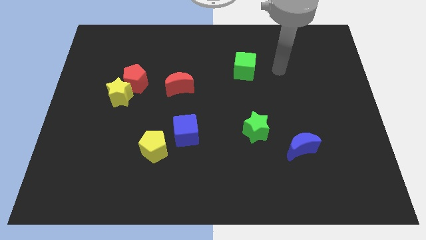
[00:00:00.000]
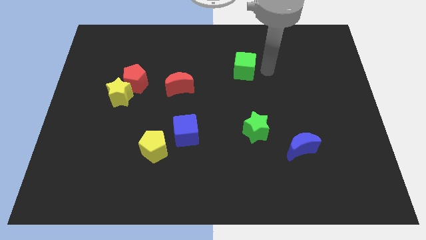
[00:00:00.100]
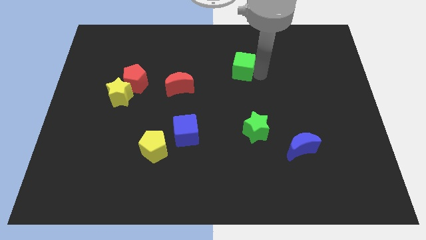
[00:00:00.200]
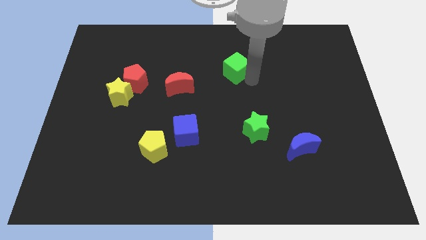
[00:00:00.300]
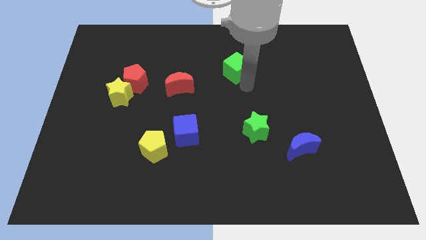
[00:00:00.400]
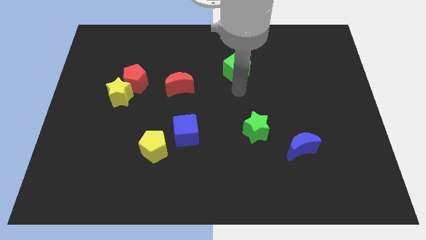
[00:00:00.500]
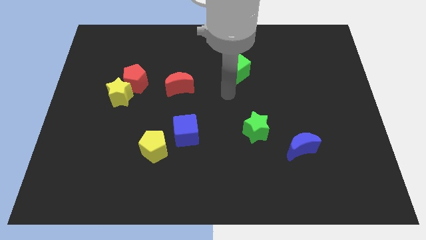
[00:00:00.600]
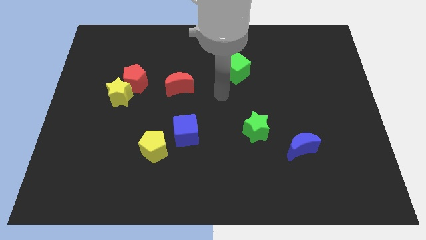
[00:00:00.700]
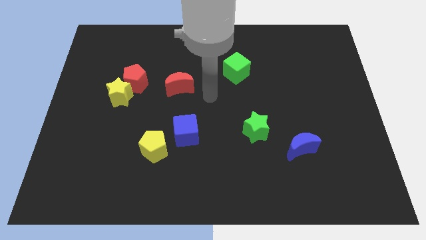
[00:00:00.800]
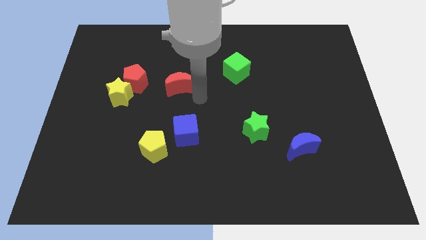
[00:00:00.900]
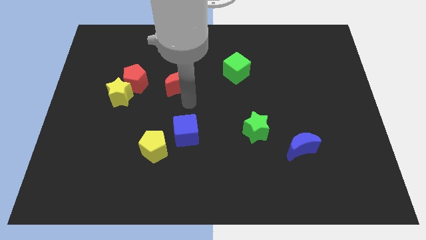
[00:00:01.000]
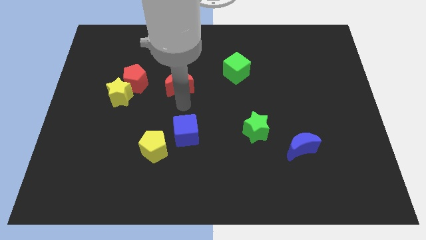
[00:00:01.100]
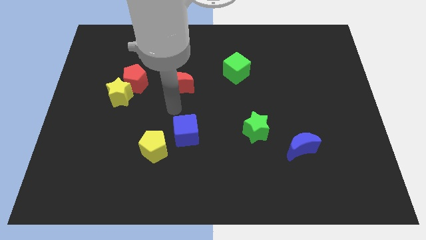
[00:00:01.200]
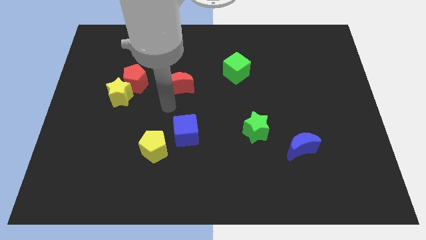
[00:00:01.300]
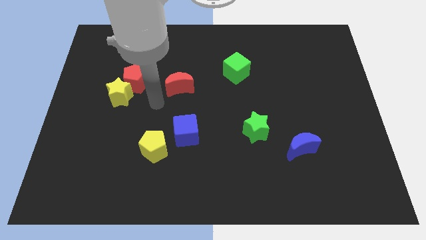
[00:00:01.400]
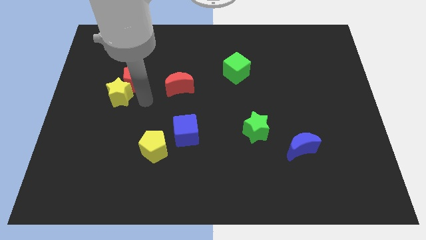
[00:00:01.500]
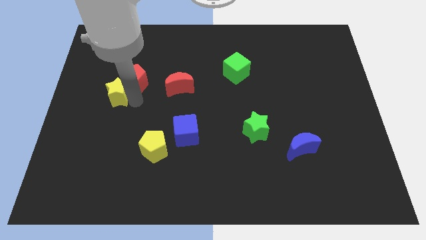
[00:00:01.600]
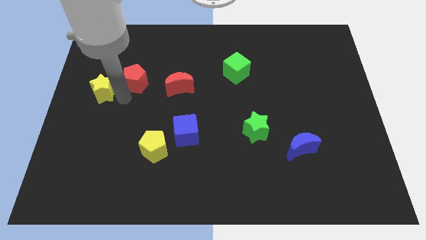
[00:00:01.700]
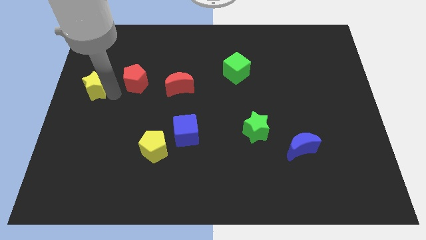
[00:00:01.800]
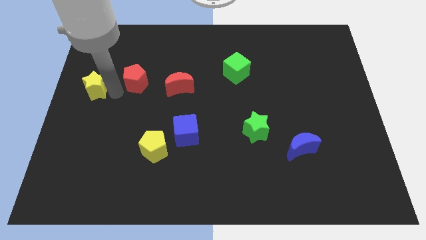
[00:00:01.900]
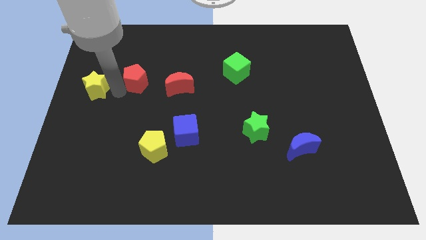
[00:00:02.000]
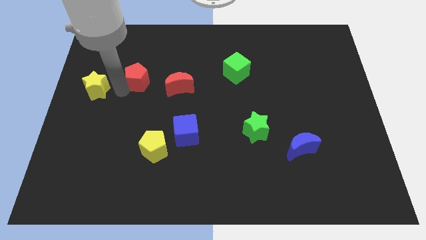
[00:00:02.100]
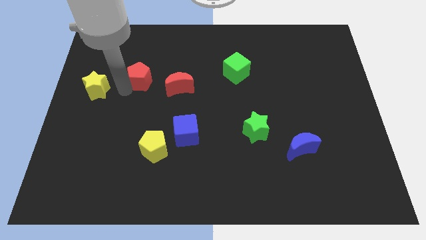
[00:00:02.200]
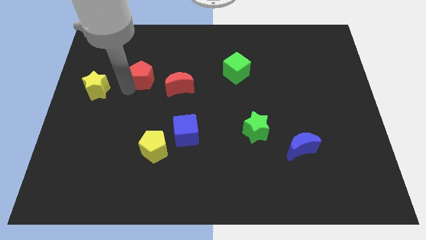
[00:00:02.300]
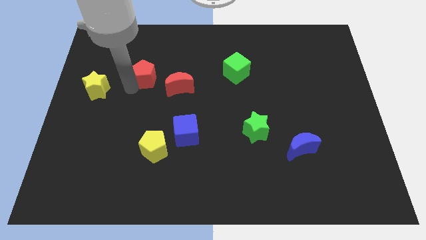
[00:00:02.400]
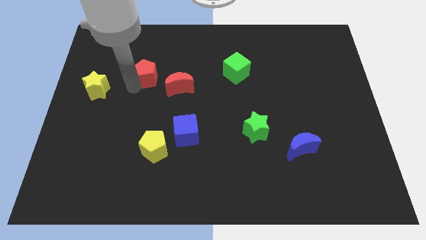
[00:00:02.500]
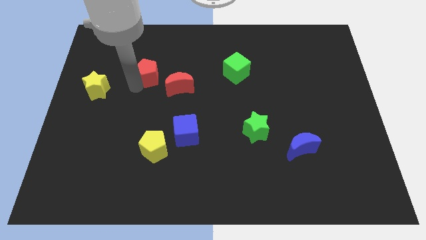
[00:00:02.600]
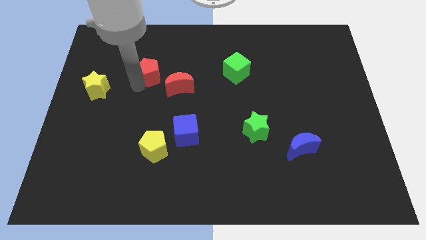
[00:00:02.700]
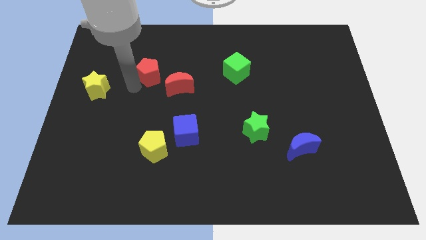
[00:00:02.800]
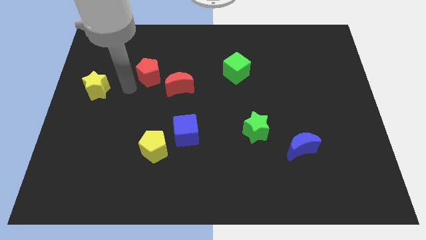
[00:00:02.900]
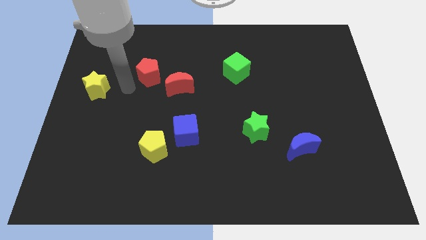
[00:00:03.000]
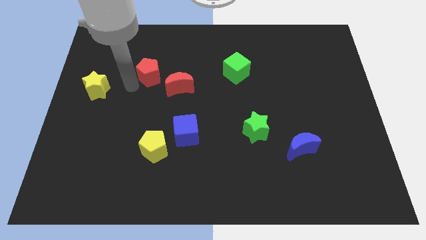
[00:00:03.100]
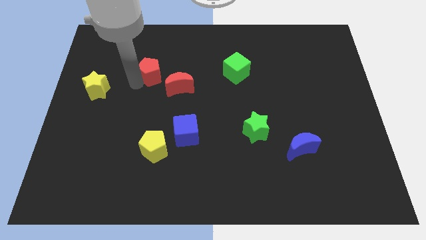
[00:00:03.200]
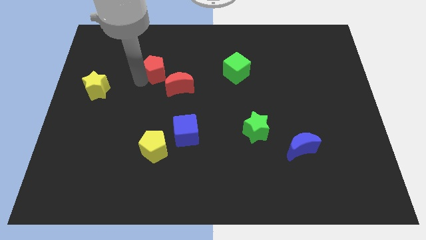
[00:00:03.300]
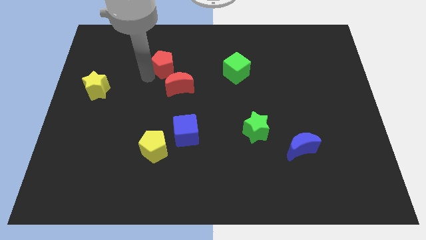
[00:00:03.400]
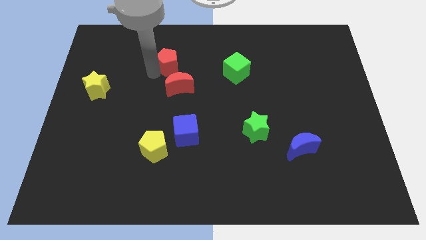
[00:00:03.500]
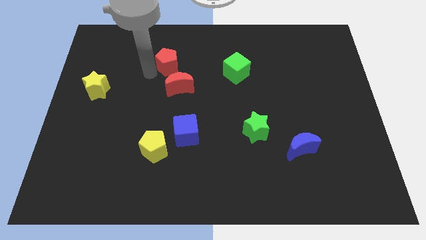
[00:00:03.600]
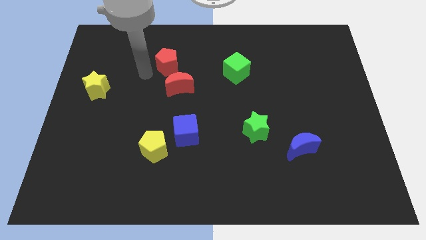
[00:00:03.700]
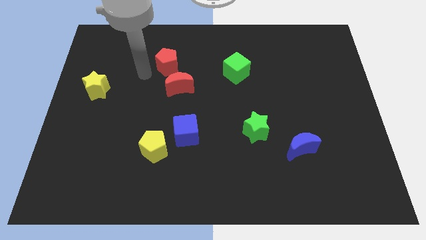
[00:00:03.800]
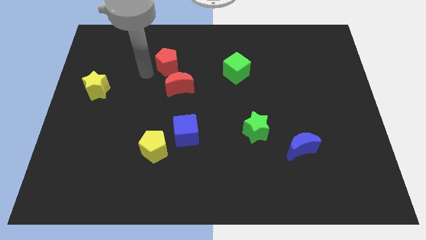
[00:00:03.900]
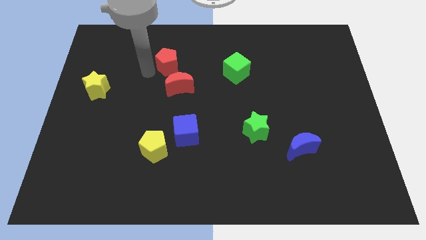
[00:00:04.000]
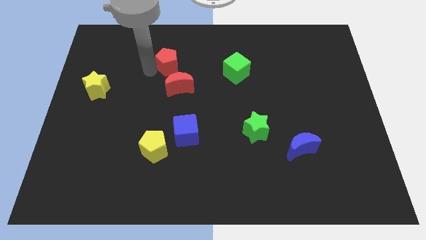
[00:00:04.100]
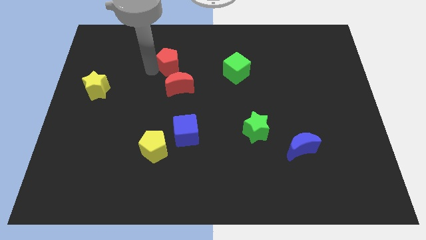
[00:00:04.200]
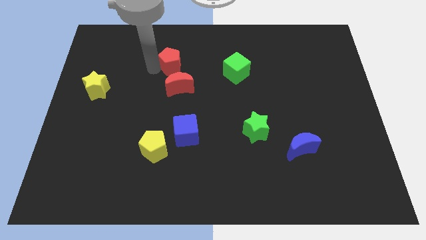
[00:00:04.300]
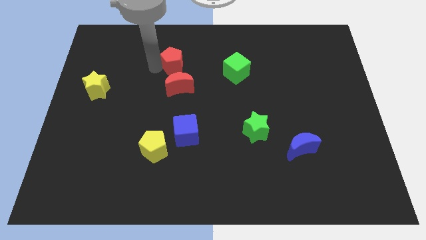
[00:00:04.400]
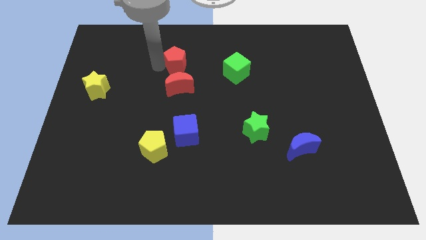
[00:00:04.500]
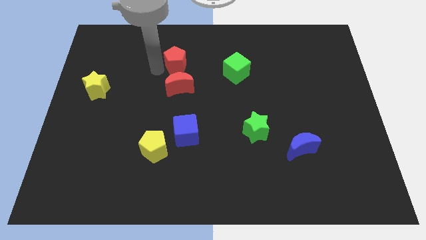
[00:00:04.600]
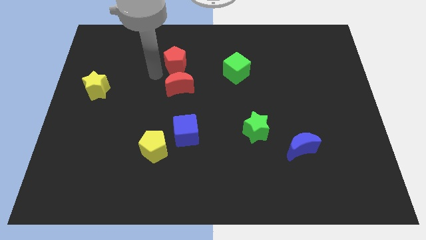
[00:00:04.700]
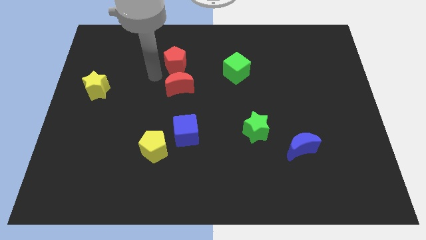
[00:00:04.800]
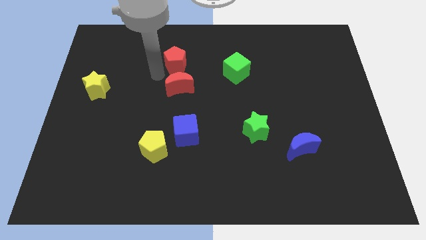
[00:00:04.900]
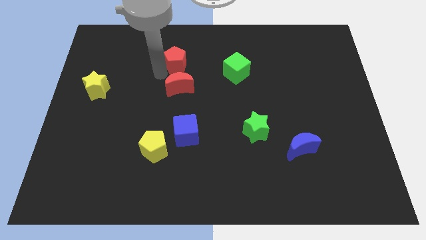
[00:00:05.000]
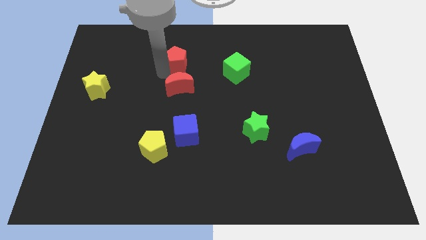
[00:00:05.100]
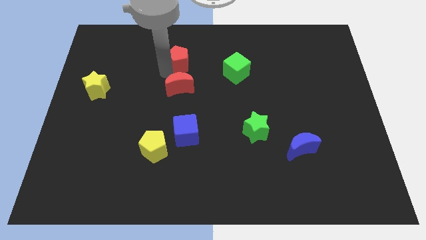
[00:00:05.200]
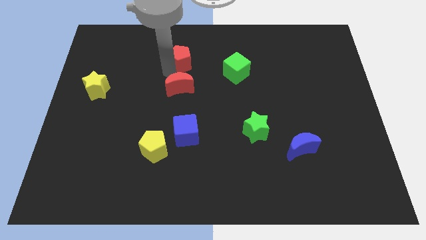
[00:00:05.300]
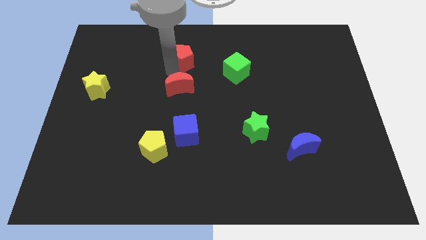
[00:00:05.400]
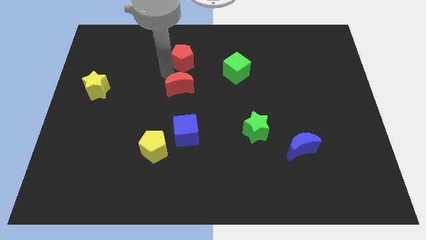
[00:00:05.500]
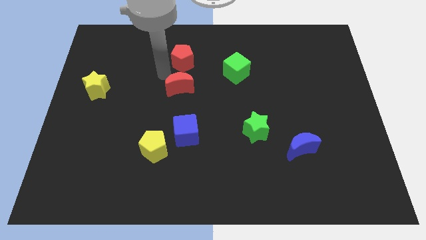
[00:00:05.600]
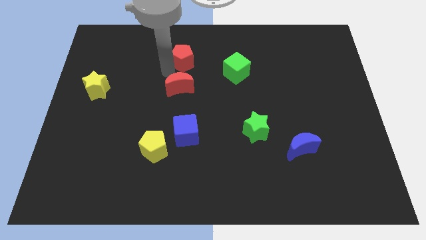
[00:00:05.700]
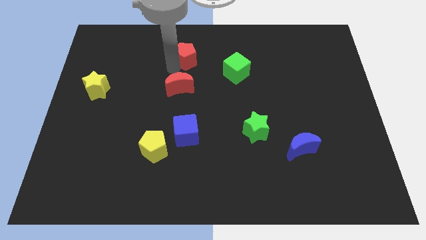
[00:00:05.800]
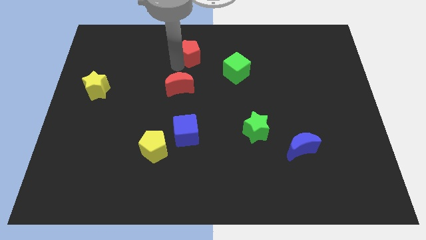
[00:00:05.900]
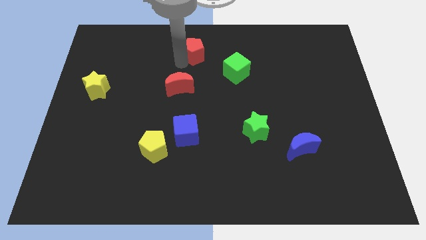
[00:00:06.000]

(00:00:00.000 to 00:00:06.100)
put the red pentagon to the towards your base

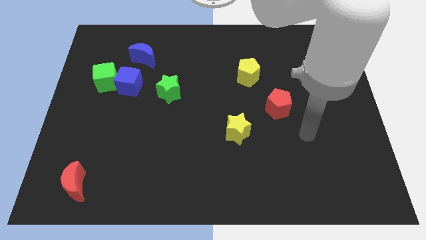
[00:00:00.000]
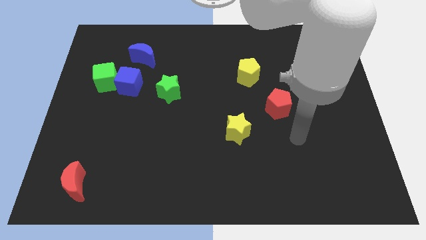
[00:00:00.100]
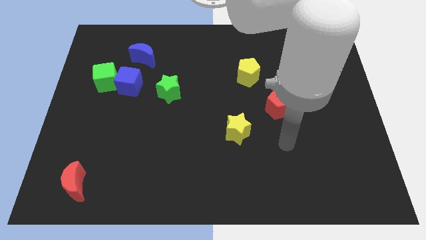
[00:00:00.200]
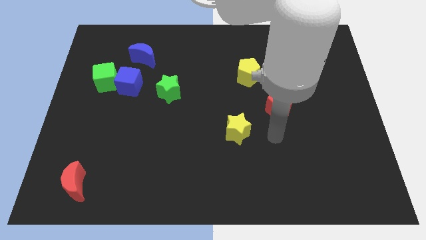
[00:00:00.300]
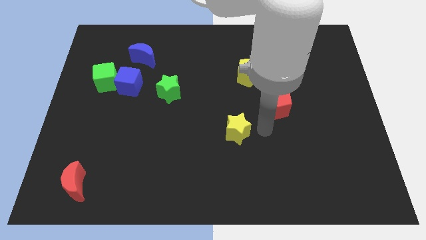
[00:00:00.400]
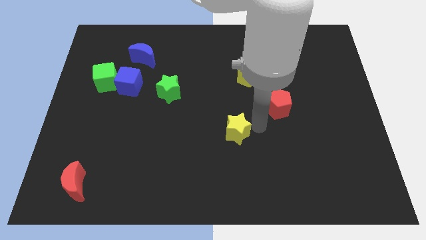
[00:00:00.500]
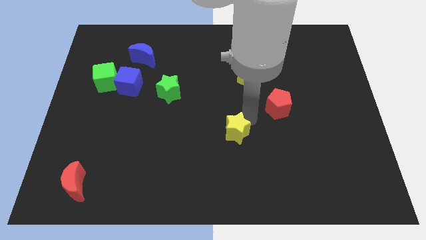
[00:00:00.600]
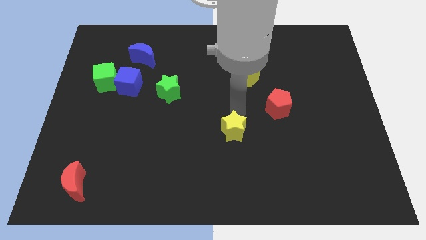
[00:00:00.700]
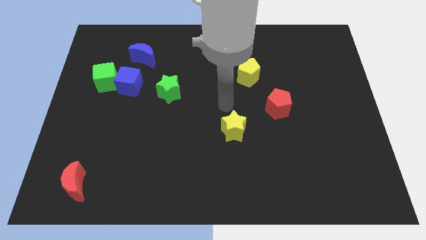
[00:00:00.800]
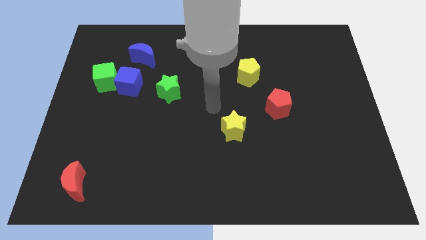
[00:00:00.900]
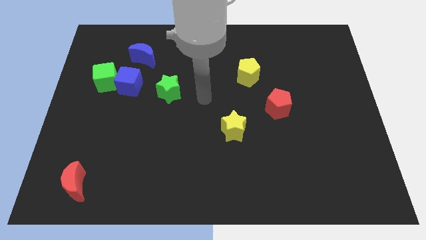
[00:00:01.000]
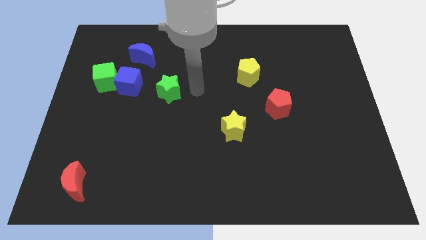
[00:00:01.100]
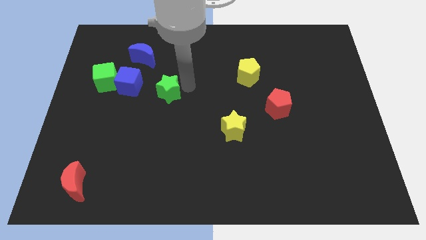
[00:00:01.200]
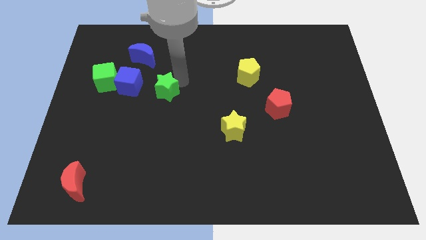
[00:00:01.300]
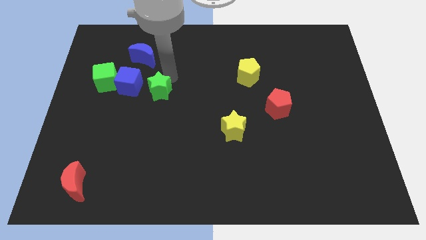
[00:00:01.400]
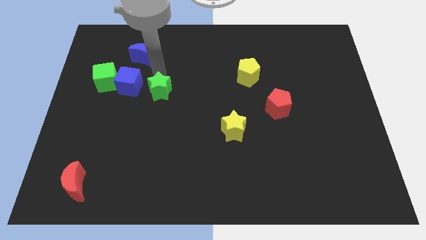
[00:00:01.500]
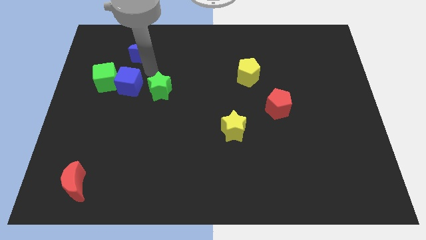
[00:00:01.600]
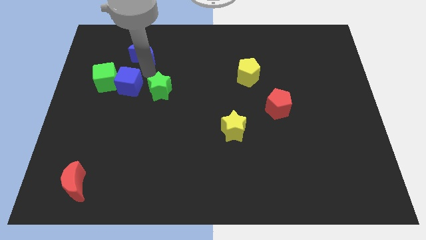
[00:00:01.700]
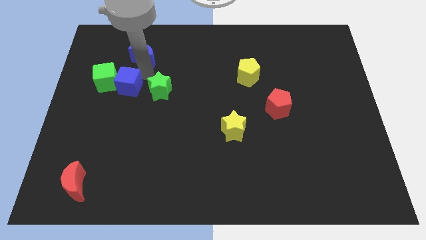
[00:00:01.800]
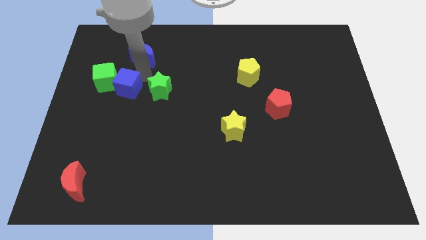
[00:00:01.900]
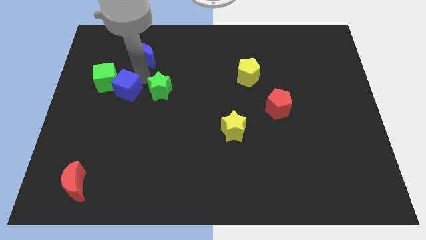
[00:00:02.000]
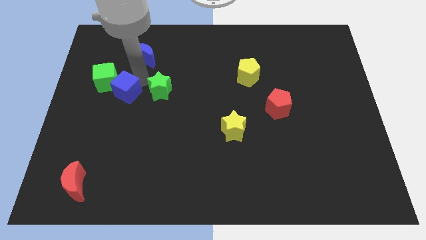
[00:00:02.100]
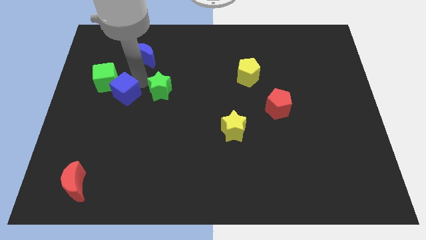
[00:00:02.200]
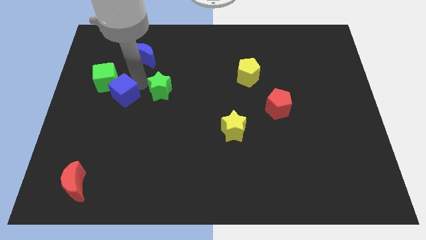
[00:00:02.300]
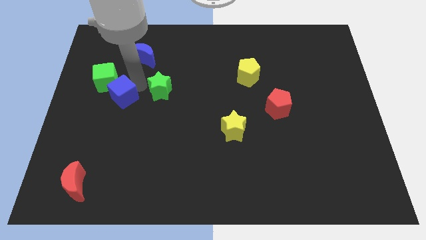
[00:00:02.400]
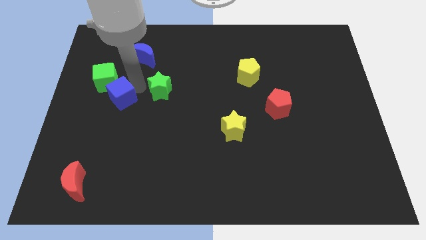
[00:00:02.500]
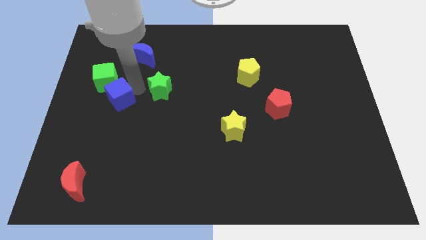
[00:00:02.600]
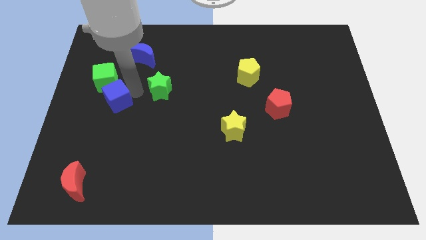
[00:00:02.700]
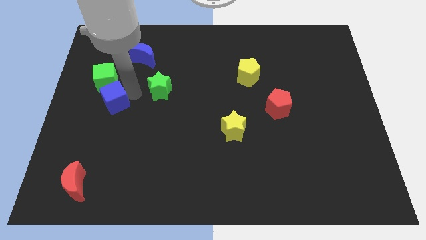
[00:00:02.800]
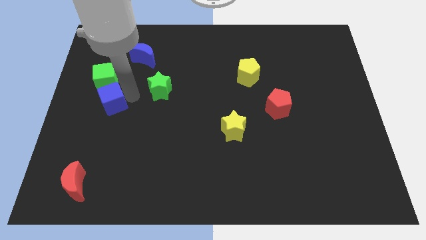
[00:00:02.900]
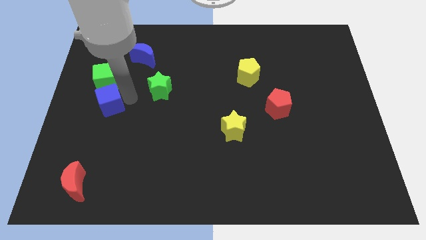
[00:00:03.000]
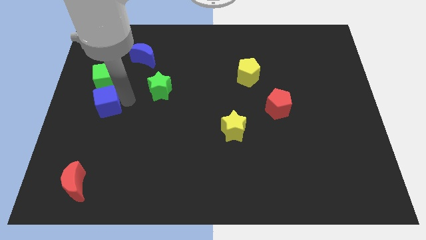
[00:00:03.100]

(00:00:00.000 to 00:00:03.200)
slide the blue cube to the left side
